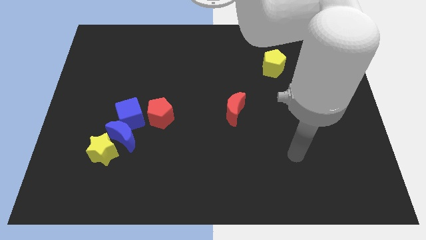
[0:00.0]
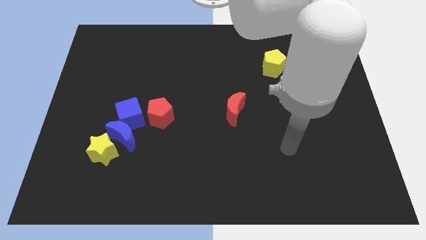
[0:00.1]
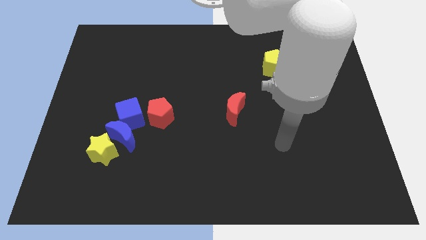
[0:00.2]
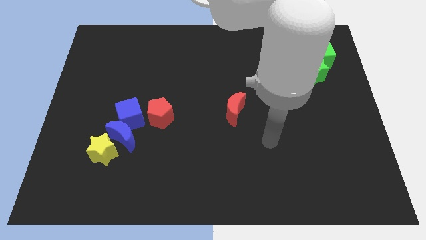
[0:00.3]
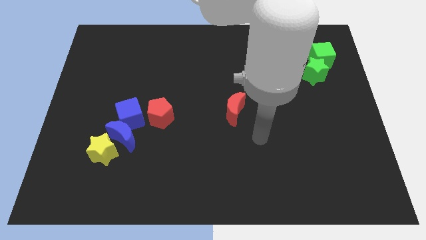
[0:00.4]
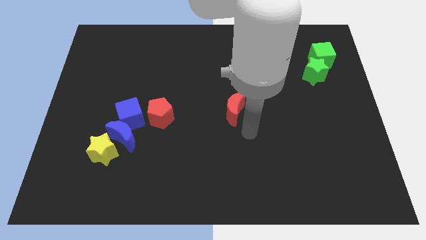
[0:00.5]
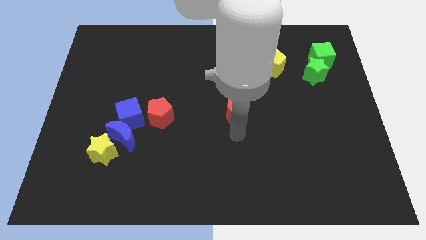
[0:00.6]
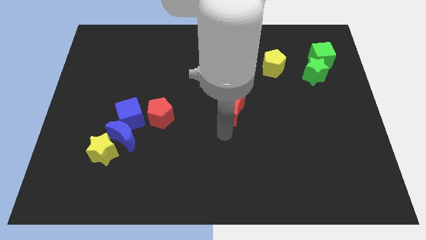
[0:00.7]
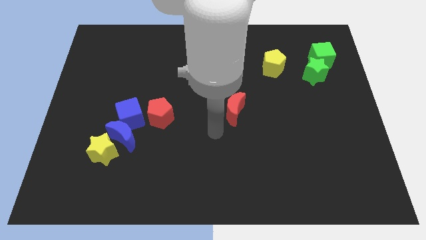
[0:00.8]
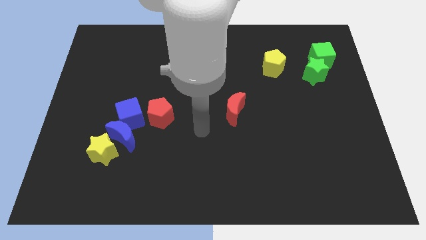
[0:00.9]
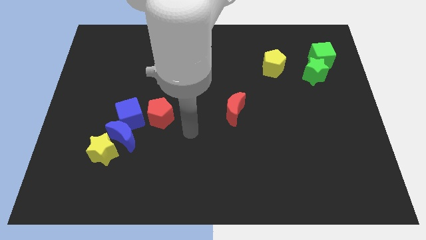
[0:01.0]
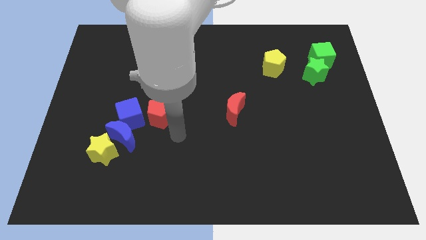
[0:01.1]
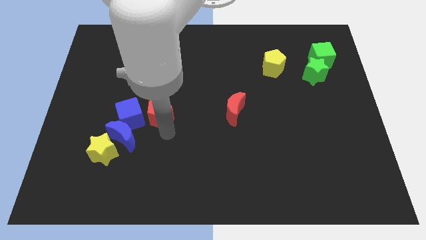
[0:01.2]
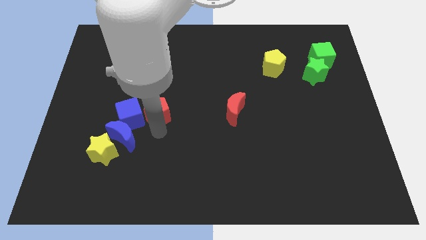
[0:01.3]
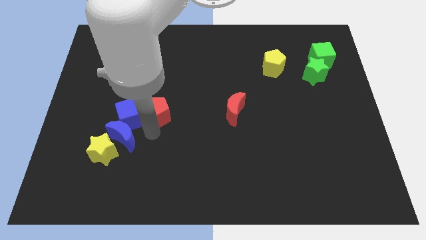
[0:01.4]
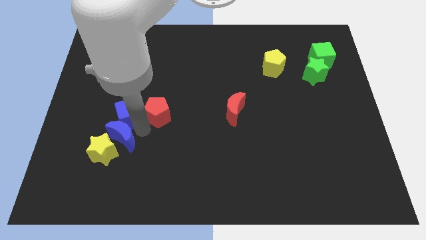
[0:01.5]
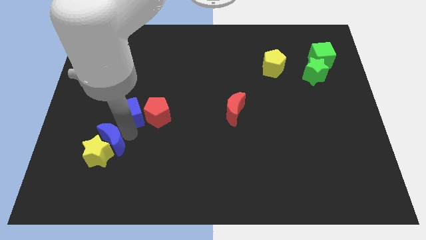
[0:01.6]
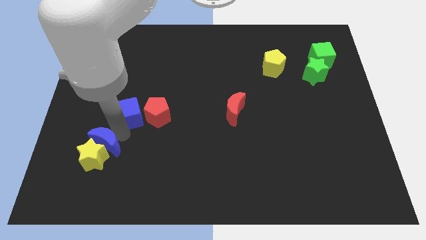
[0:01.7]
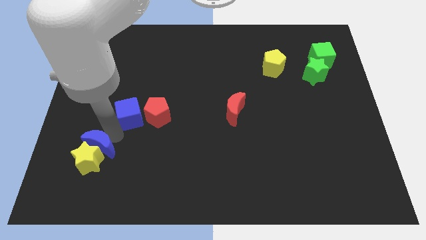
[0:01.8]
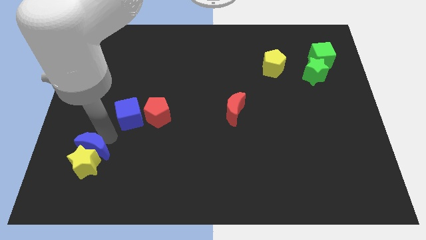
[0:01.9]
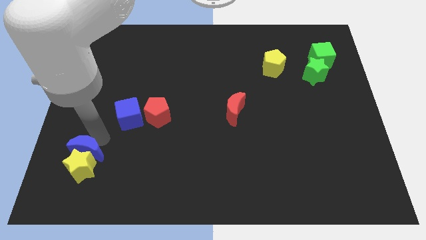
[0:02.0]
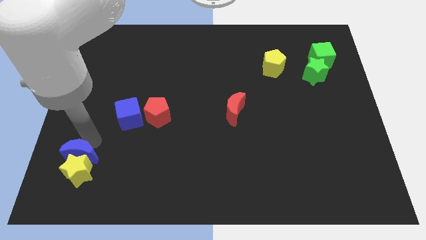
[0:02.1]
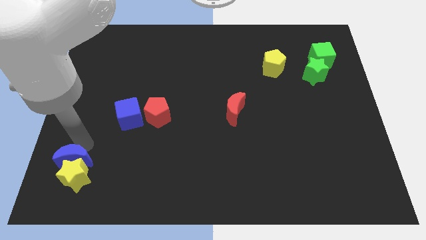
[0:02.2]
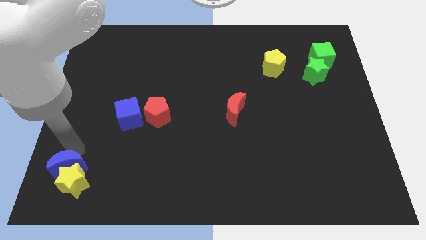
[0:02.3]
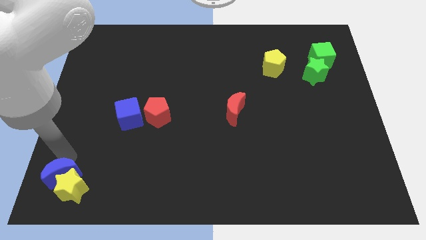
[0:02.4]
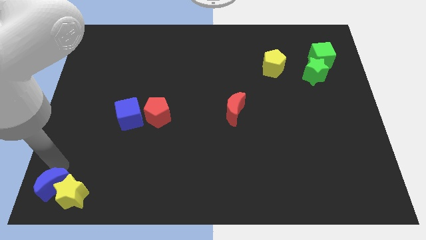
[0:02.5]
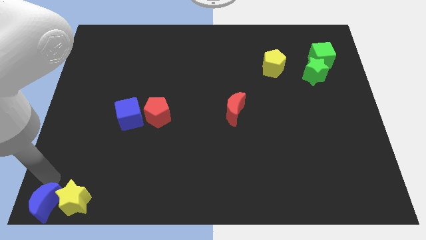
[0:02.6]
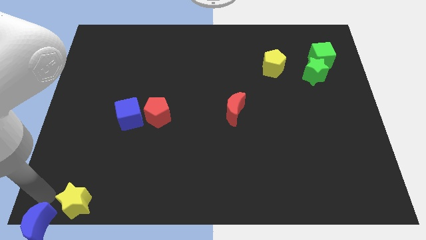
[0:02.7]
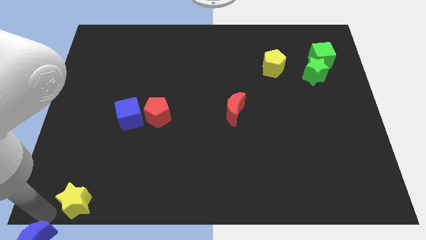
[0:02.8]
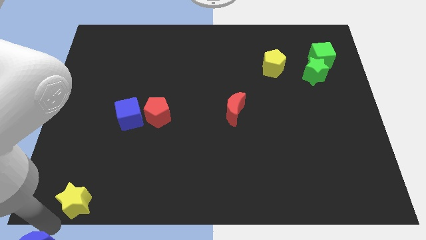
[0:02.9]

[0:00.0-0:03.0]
pull the yellow star apart from the blue moon

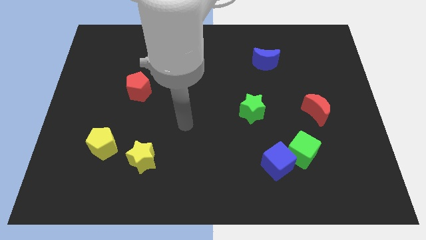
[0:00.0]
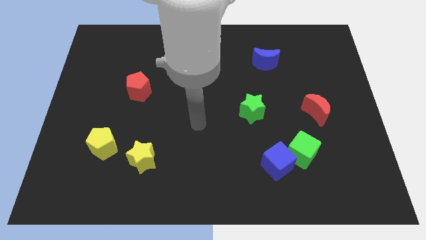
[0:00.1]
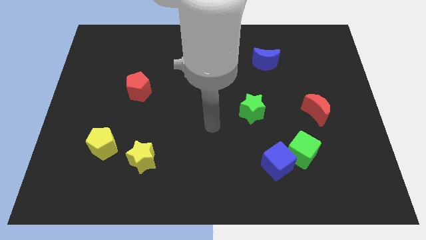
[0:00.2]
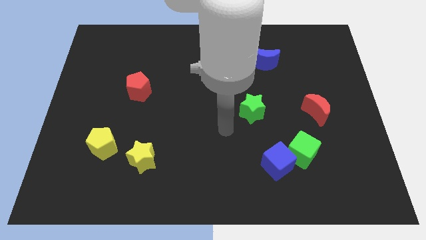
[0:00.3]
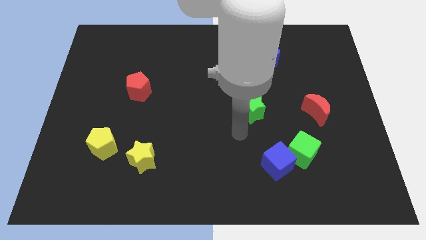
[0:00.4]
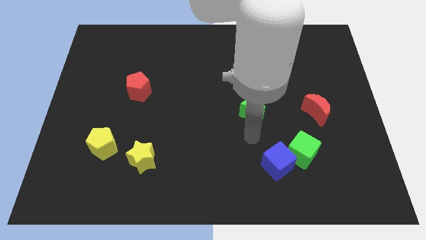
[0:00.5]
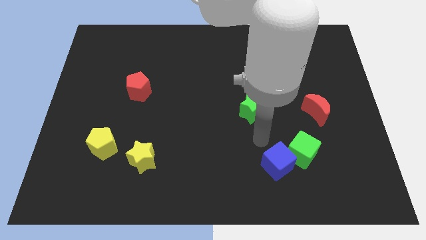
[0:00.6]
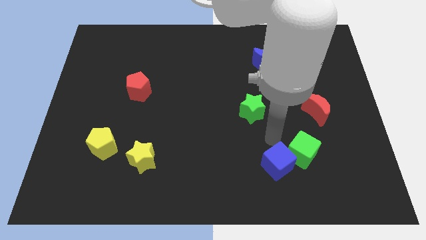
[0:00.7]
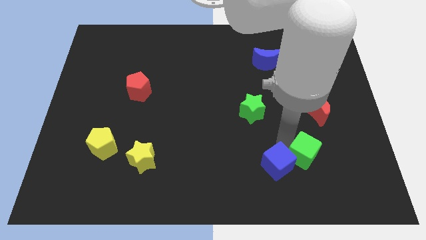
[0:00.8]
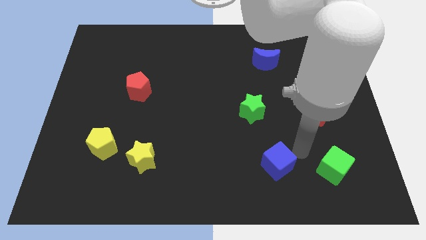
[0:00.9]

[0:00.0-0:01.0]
move the blue cube away from the green cube

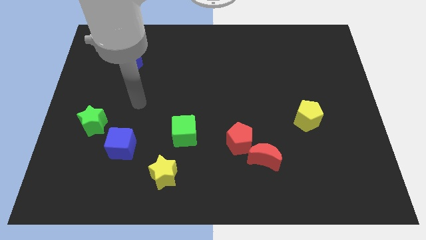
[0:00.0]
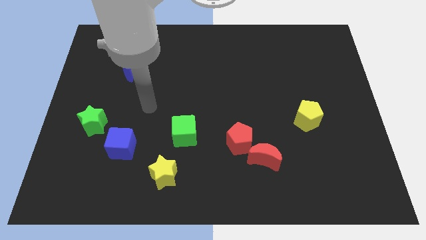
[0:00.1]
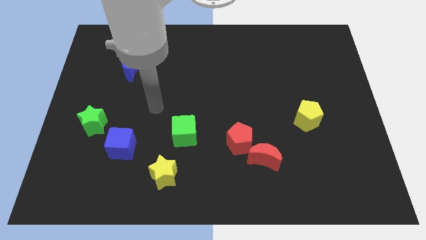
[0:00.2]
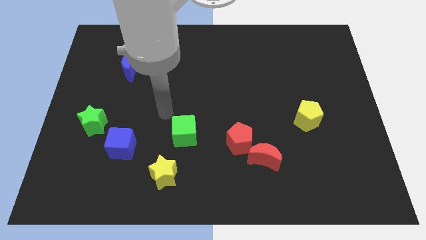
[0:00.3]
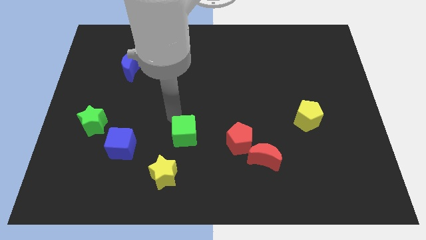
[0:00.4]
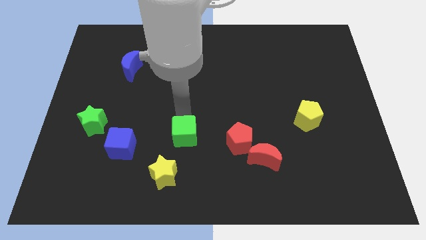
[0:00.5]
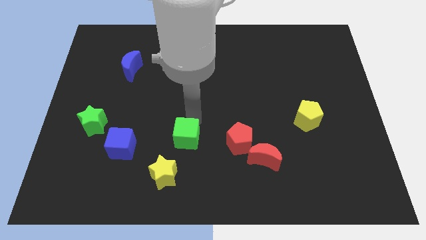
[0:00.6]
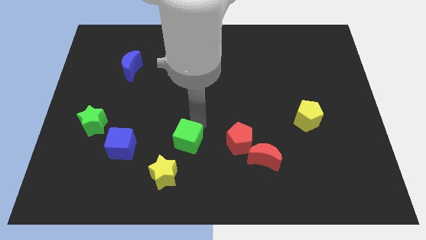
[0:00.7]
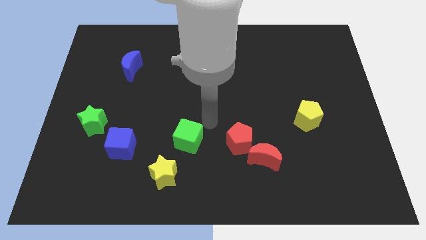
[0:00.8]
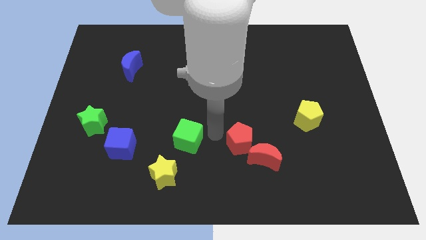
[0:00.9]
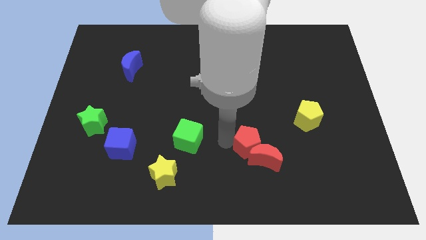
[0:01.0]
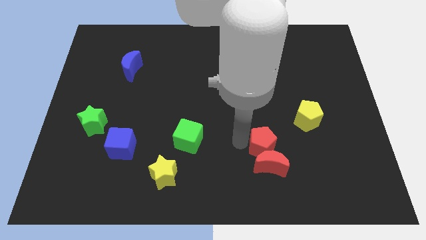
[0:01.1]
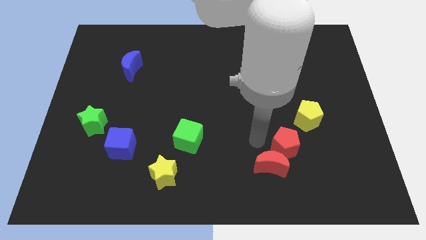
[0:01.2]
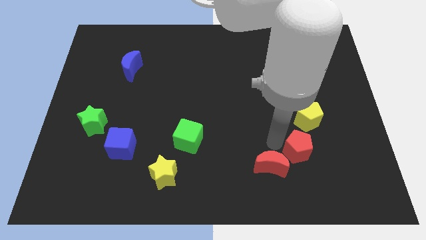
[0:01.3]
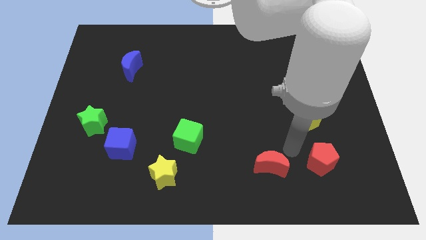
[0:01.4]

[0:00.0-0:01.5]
separate the red moon from the red pentagon

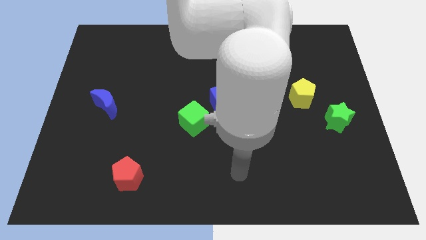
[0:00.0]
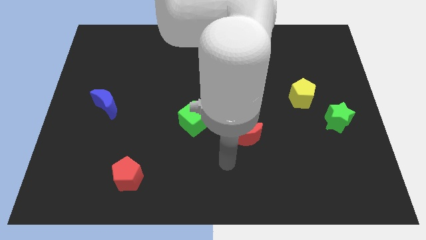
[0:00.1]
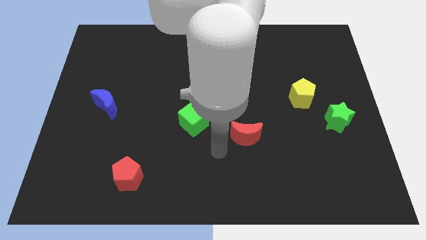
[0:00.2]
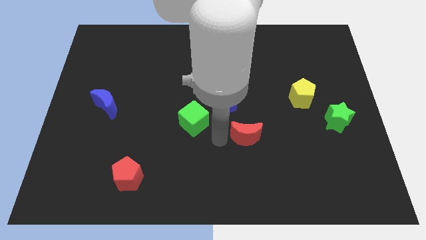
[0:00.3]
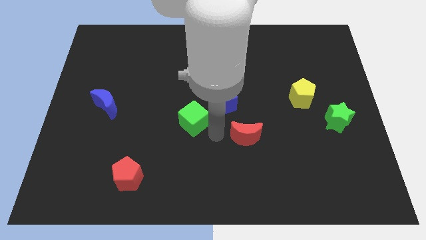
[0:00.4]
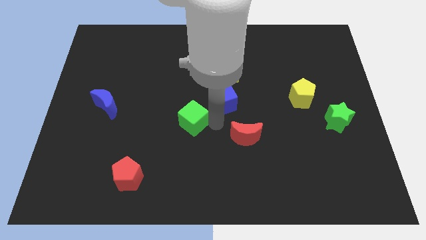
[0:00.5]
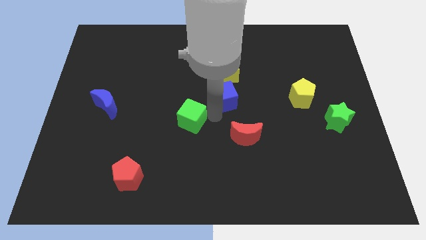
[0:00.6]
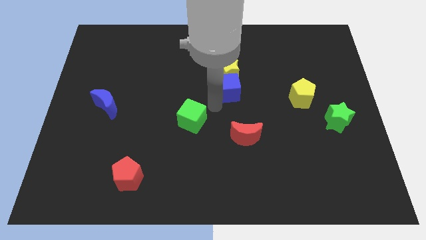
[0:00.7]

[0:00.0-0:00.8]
separate the green cube from the blue cube

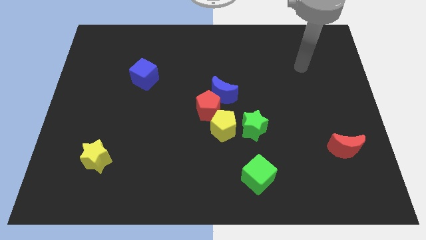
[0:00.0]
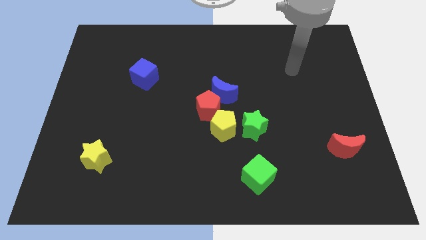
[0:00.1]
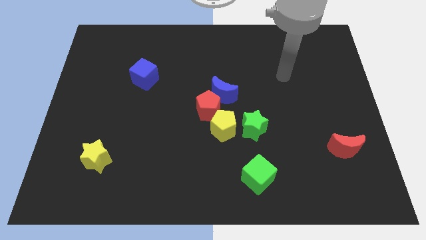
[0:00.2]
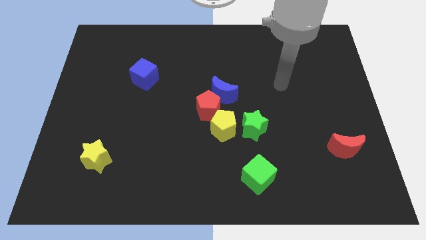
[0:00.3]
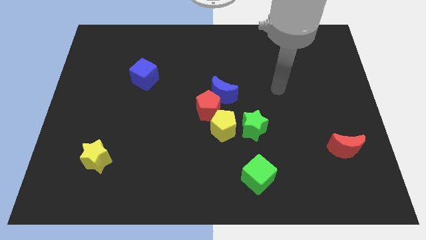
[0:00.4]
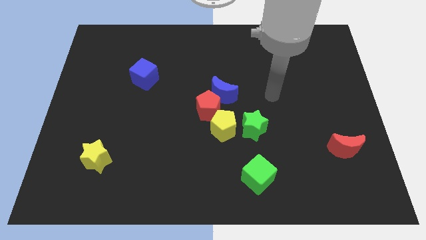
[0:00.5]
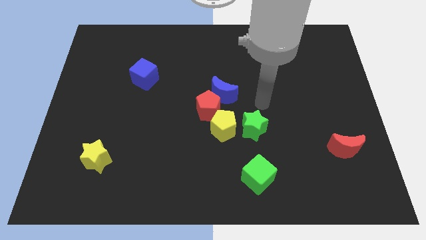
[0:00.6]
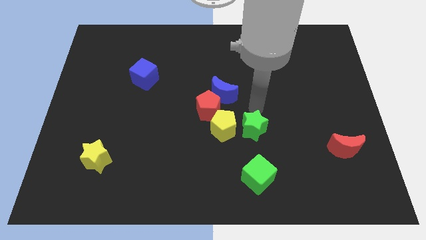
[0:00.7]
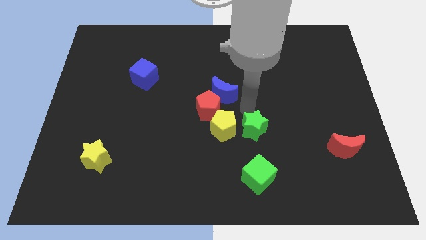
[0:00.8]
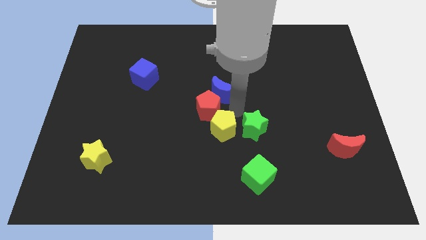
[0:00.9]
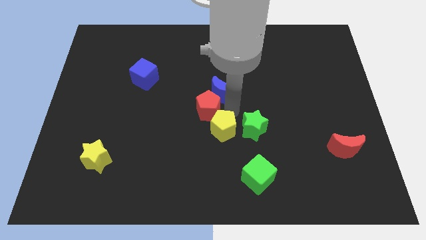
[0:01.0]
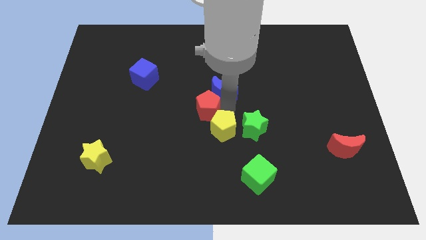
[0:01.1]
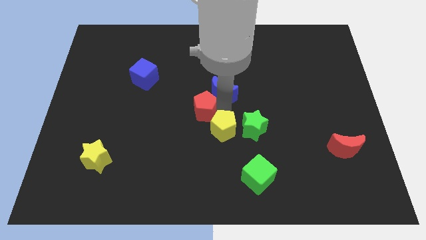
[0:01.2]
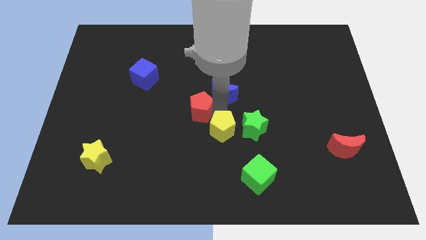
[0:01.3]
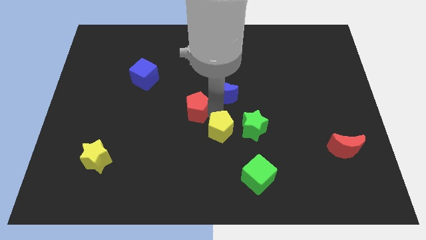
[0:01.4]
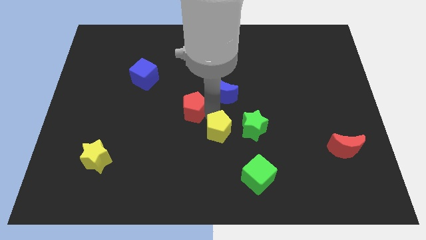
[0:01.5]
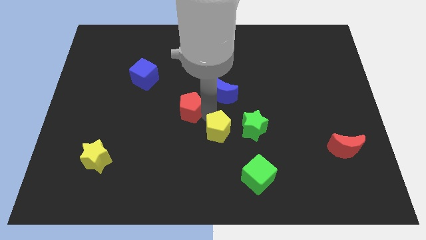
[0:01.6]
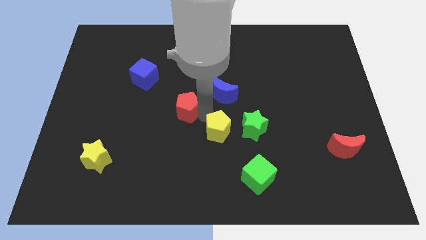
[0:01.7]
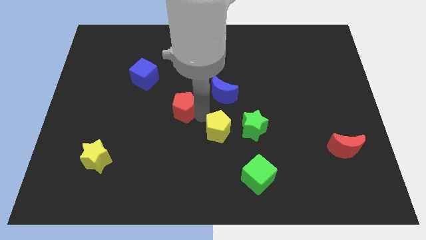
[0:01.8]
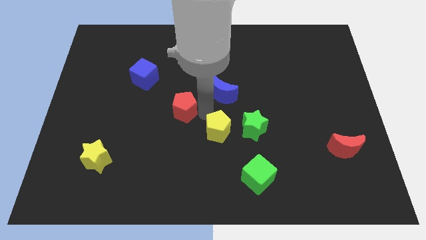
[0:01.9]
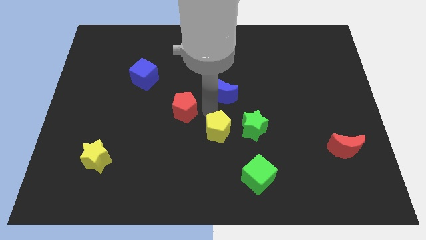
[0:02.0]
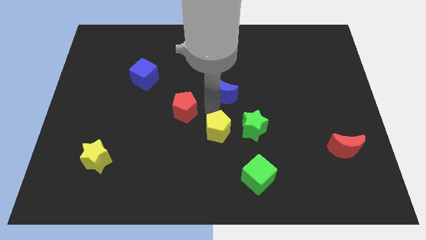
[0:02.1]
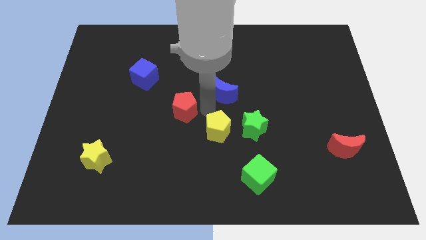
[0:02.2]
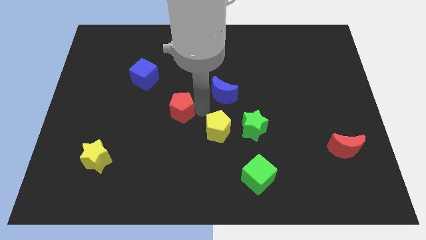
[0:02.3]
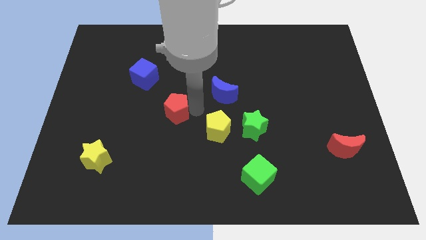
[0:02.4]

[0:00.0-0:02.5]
separate the red pentagon from the blue moon and yellow pentagon

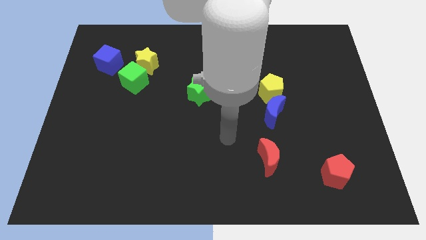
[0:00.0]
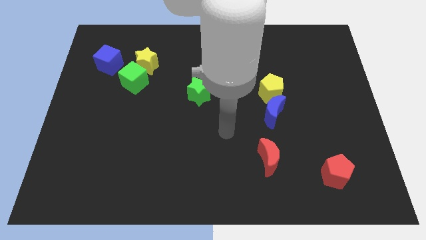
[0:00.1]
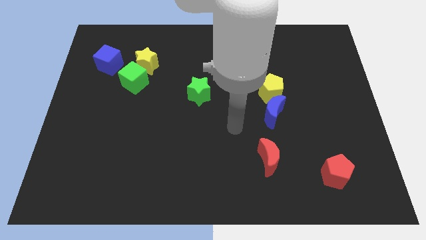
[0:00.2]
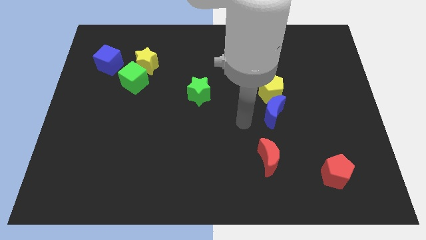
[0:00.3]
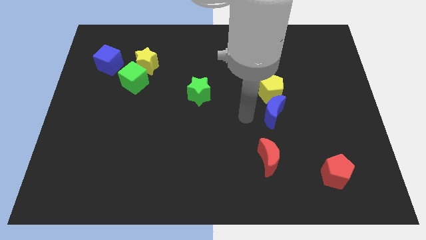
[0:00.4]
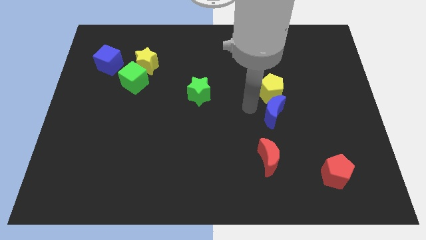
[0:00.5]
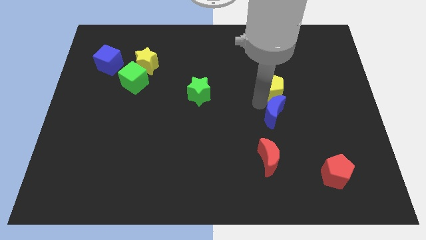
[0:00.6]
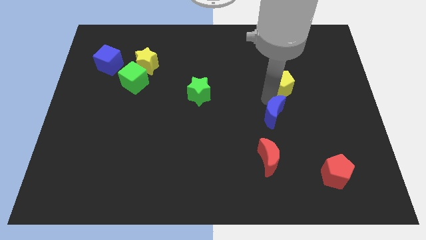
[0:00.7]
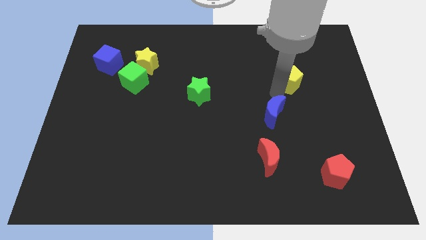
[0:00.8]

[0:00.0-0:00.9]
separate the blue moon from the yellow pentagon
